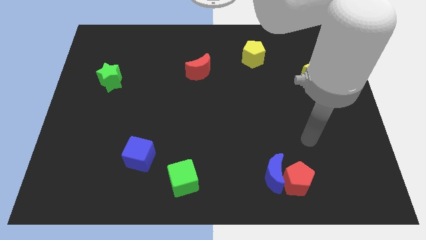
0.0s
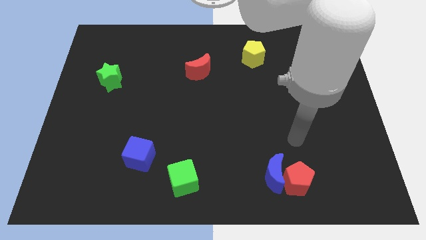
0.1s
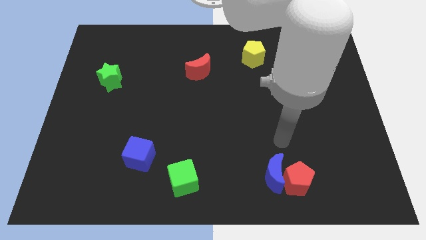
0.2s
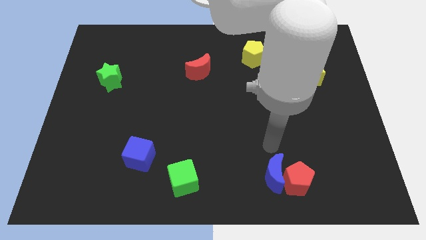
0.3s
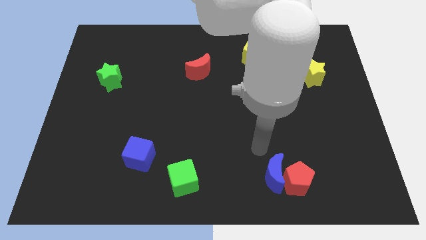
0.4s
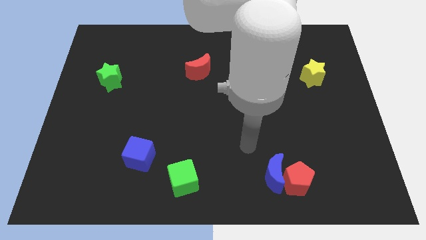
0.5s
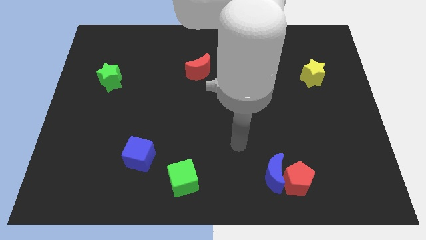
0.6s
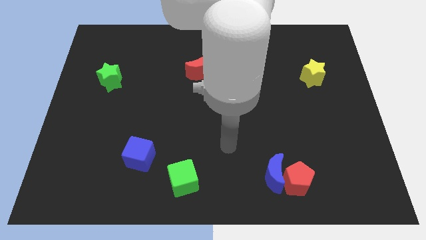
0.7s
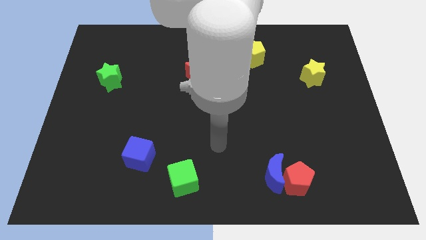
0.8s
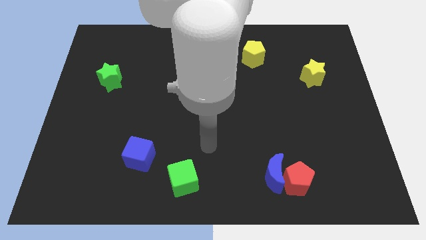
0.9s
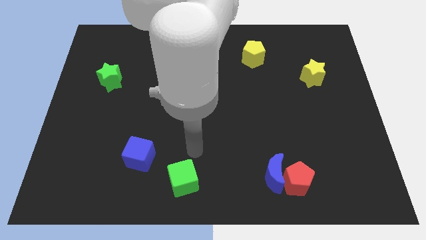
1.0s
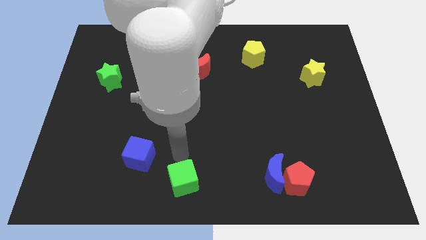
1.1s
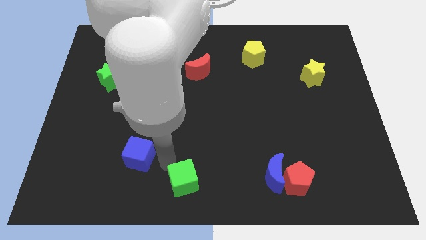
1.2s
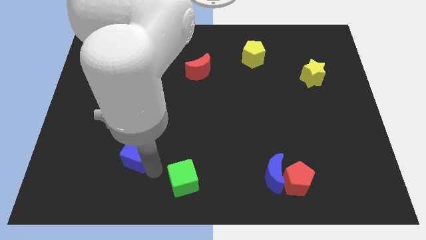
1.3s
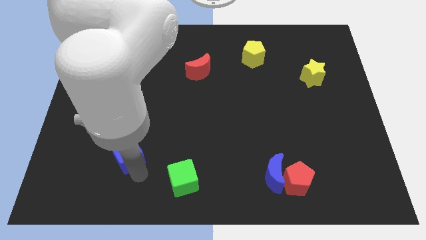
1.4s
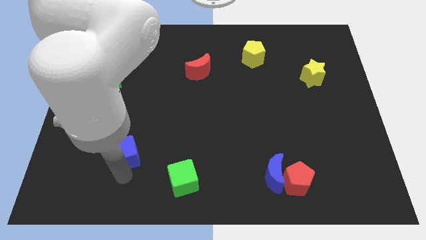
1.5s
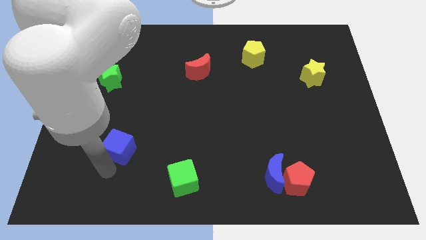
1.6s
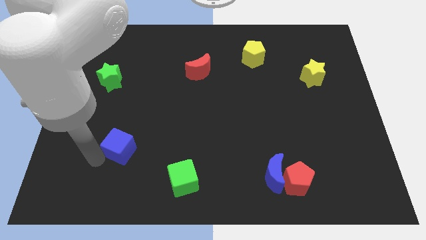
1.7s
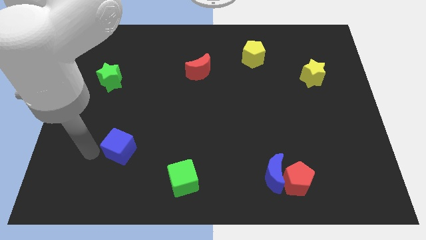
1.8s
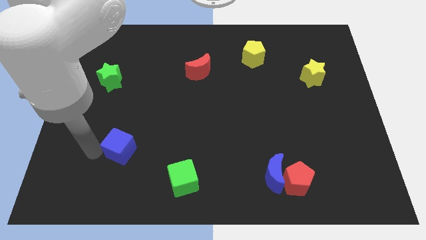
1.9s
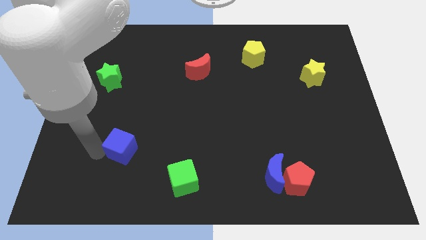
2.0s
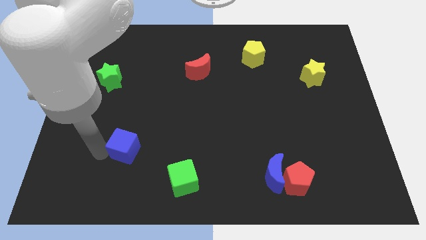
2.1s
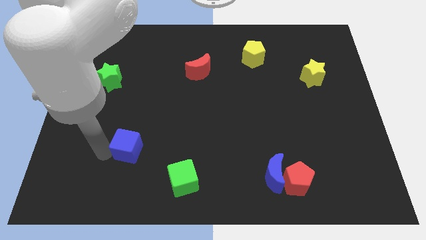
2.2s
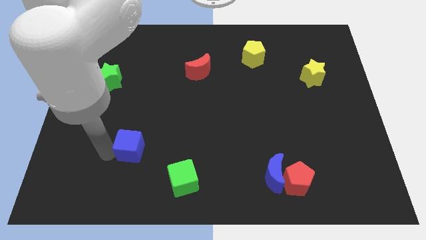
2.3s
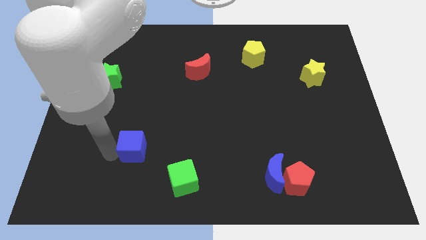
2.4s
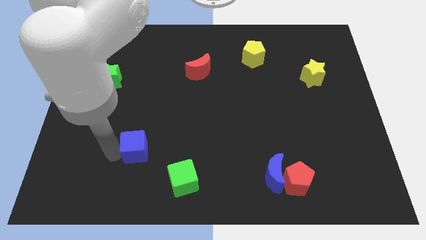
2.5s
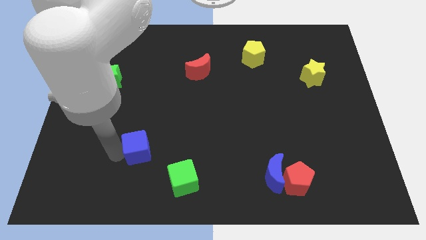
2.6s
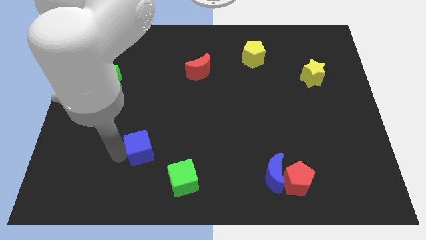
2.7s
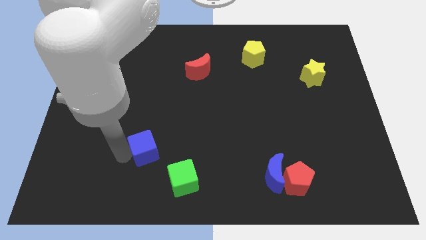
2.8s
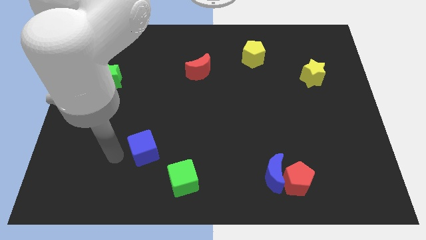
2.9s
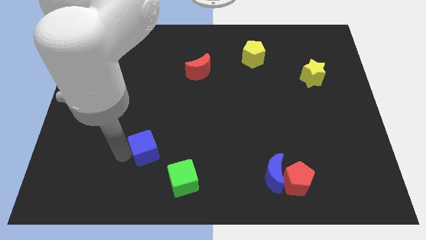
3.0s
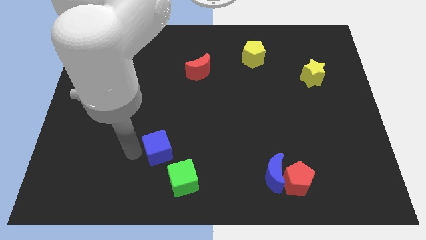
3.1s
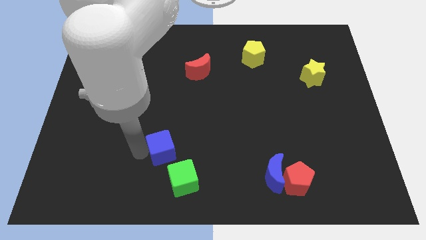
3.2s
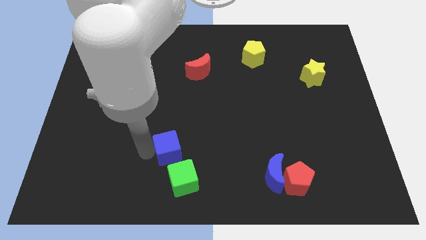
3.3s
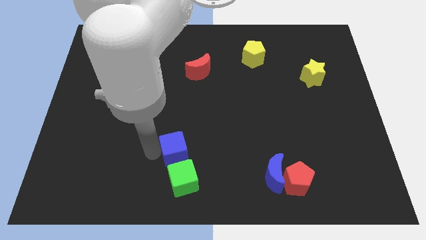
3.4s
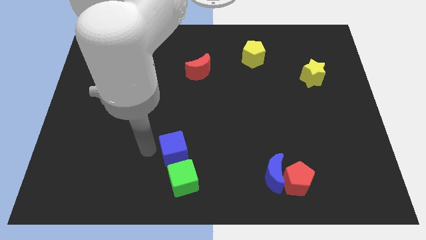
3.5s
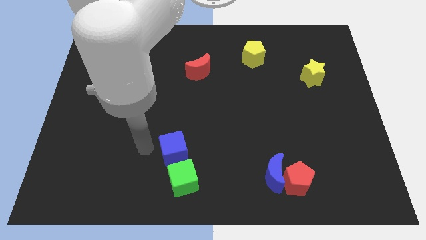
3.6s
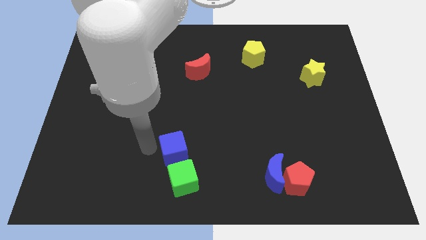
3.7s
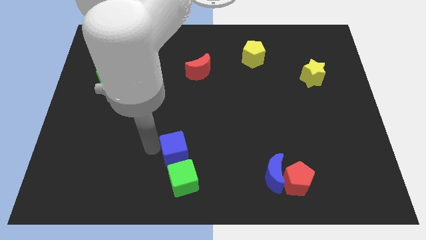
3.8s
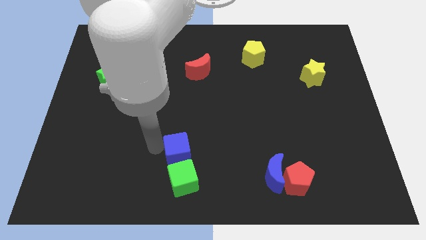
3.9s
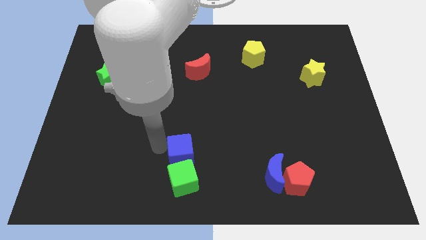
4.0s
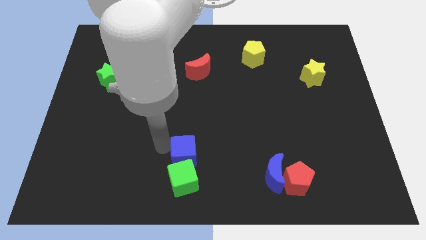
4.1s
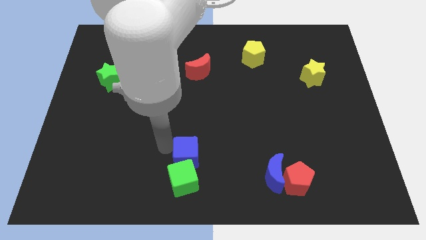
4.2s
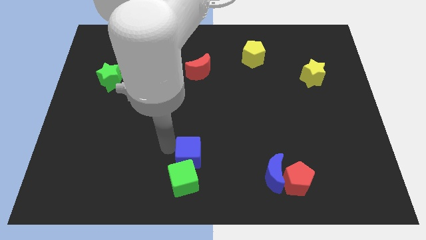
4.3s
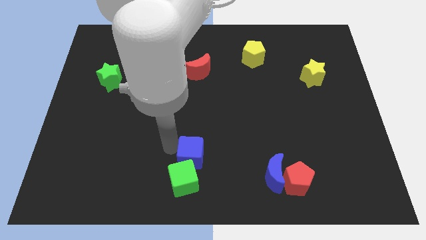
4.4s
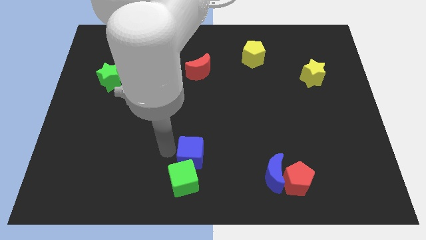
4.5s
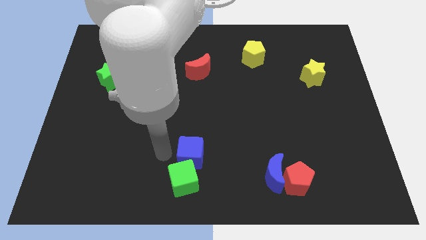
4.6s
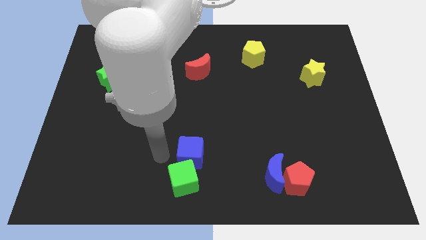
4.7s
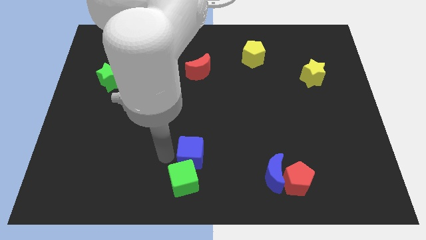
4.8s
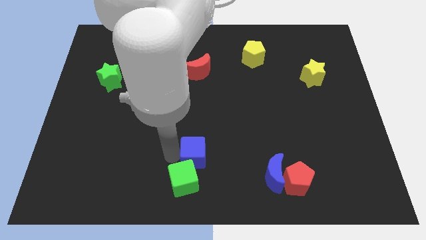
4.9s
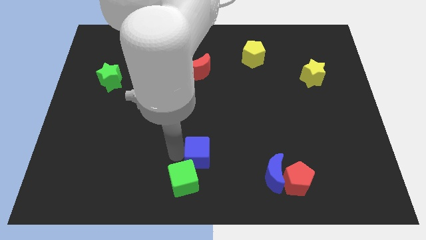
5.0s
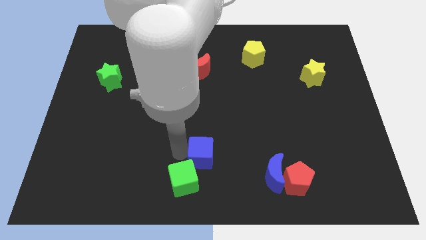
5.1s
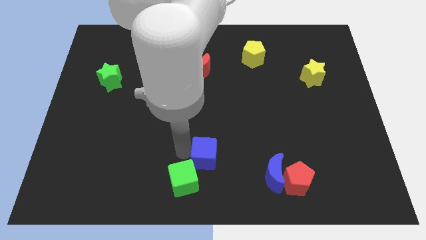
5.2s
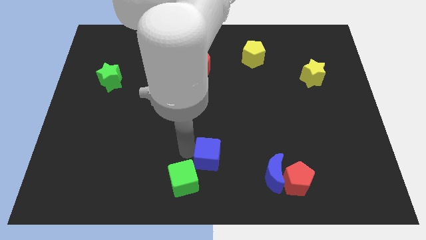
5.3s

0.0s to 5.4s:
slide the blue cube just left of the blue moon

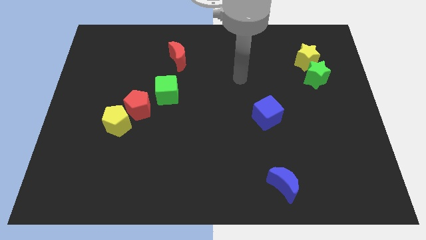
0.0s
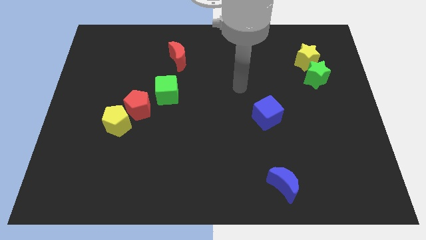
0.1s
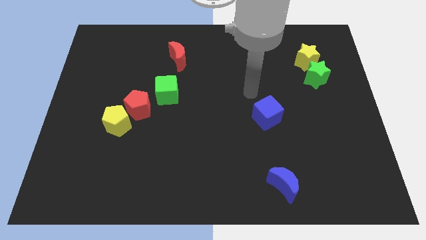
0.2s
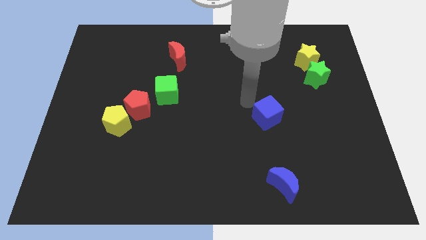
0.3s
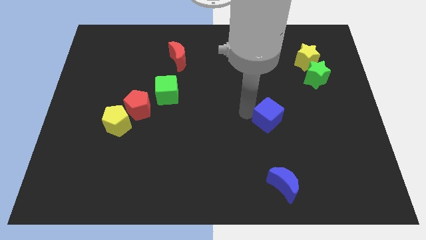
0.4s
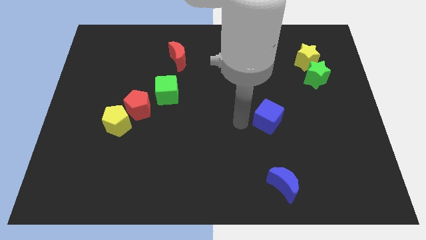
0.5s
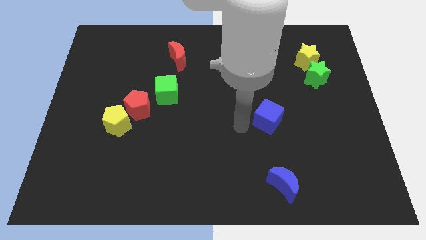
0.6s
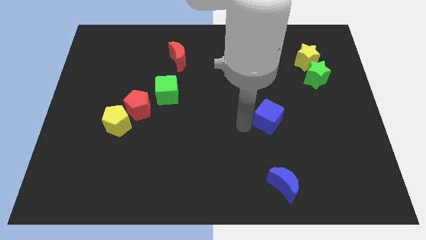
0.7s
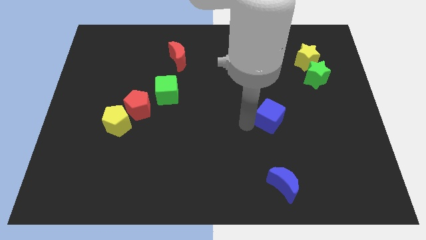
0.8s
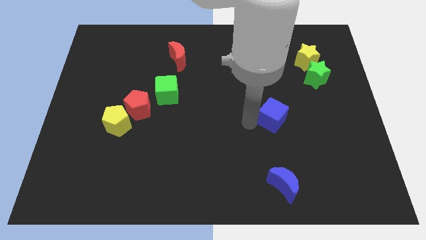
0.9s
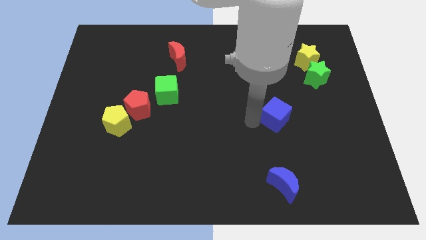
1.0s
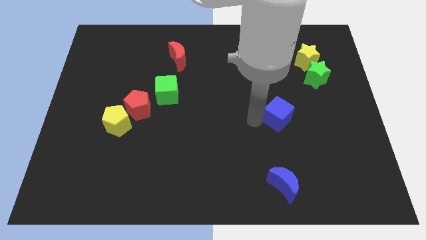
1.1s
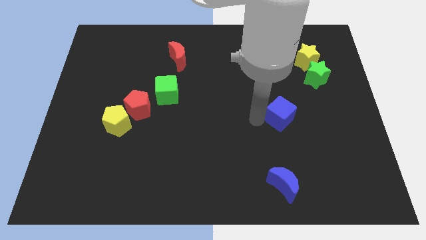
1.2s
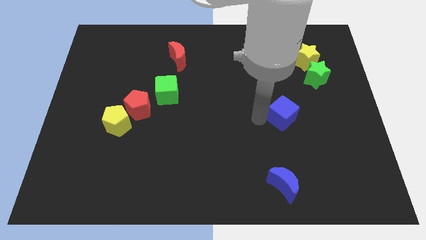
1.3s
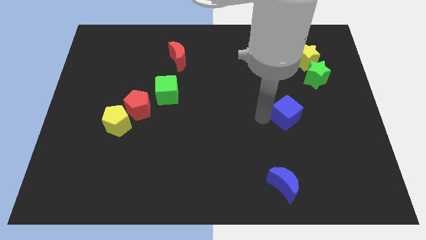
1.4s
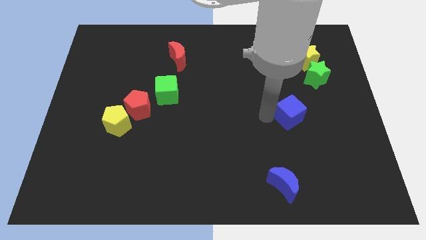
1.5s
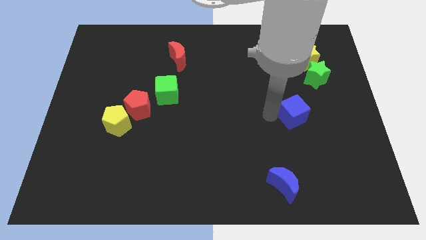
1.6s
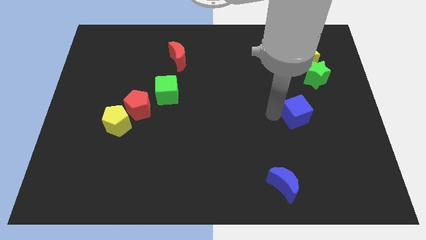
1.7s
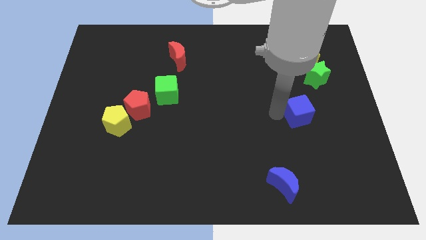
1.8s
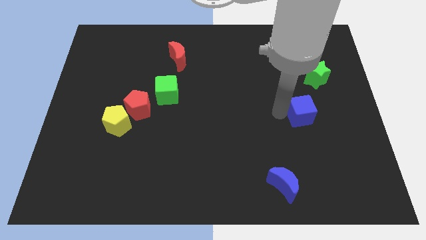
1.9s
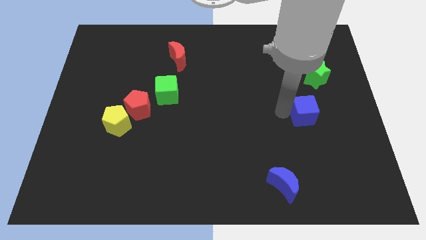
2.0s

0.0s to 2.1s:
slide the blue cube below the green star
